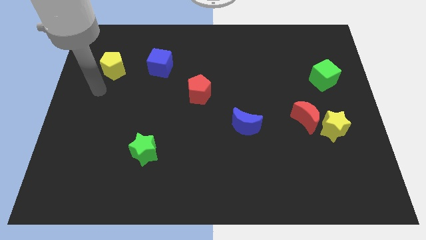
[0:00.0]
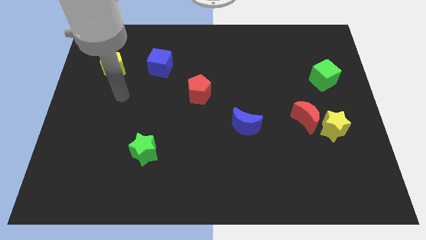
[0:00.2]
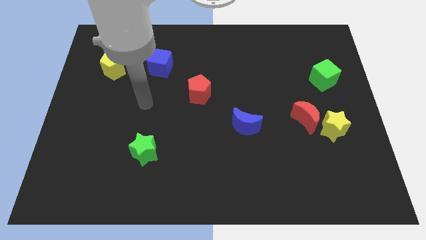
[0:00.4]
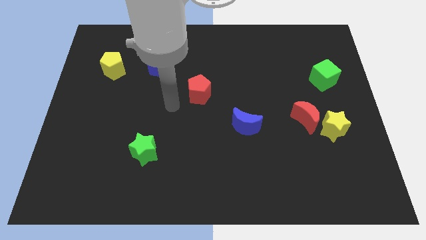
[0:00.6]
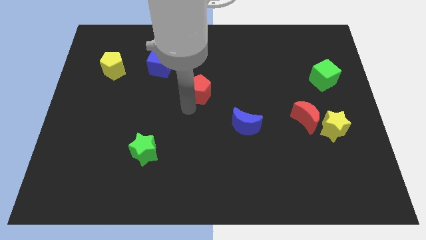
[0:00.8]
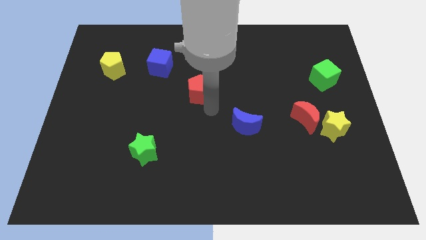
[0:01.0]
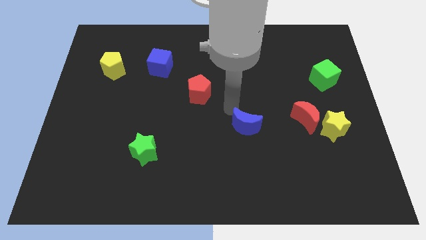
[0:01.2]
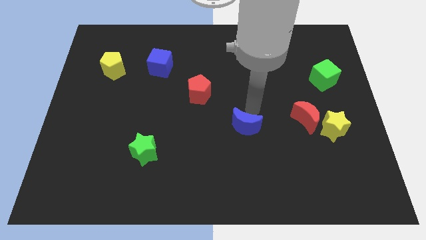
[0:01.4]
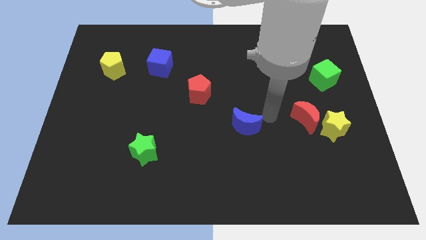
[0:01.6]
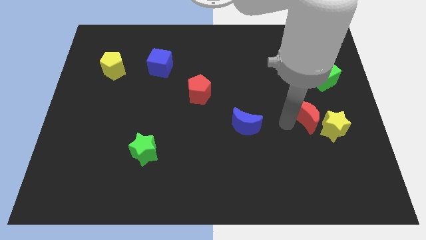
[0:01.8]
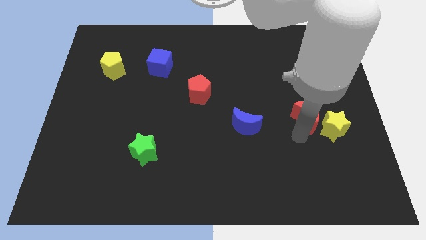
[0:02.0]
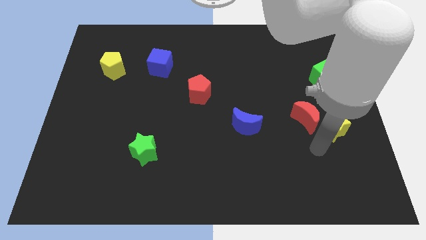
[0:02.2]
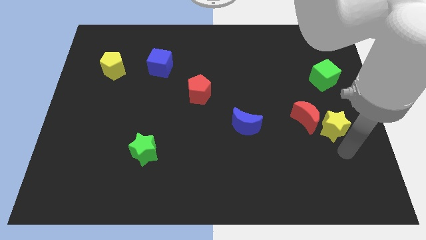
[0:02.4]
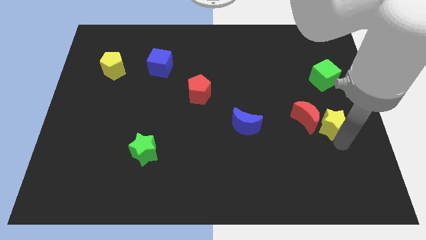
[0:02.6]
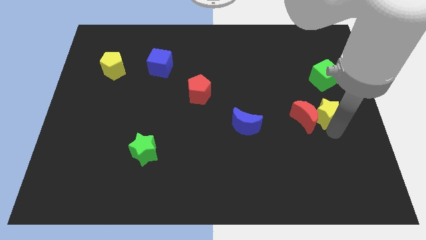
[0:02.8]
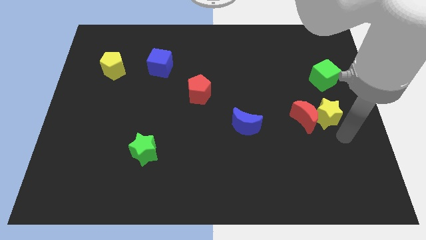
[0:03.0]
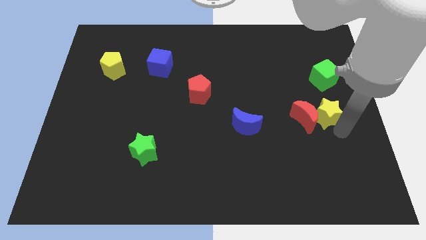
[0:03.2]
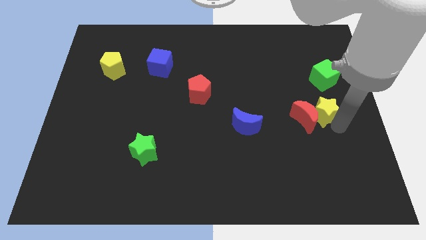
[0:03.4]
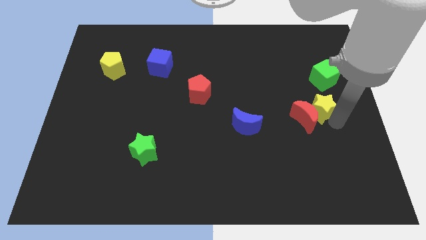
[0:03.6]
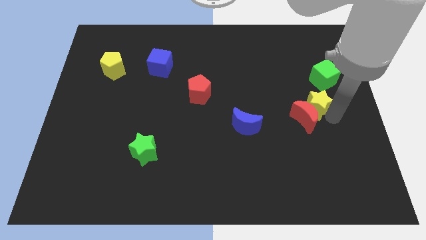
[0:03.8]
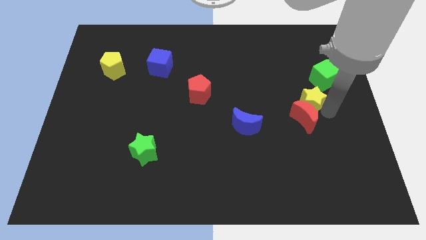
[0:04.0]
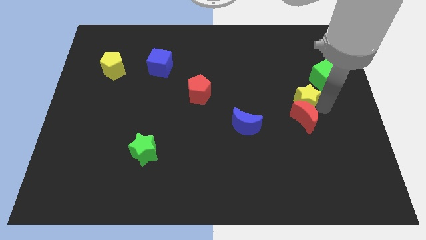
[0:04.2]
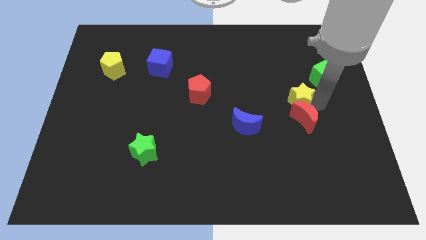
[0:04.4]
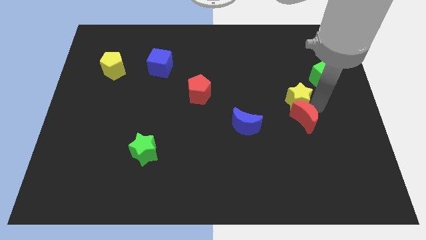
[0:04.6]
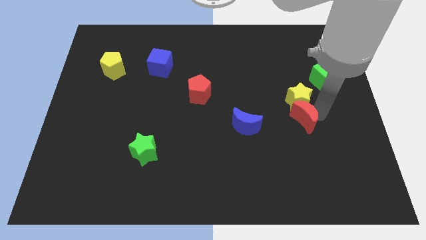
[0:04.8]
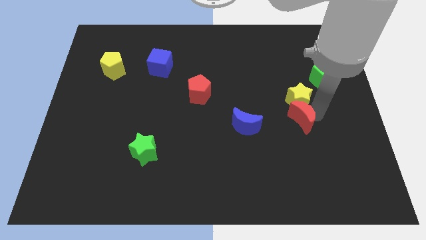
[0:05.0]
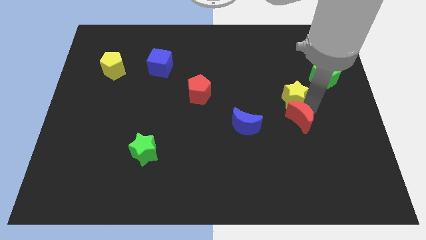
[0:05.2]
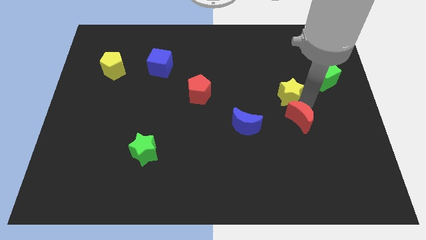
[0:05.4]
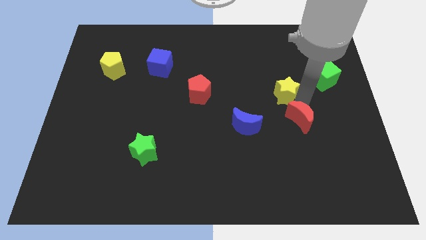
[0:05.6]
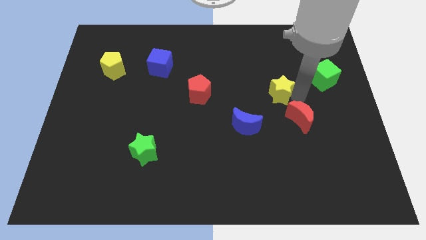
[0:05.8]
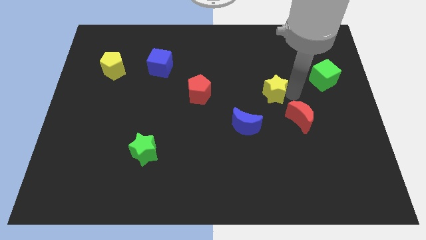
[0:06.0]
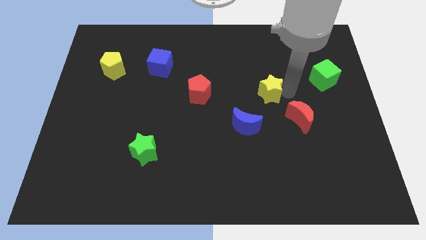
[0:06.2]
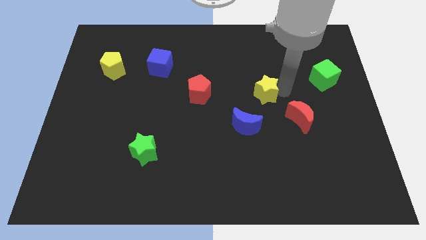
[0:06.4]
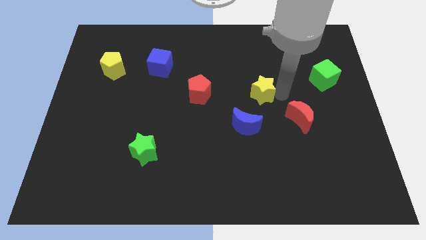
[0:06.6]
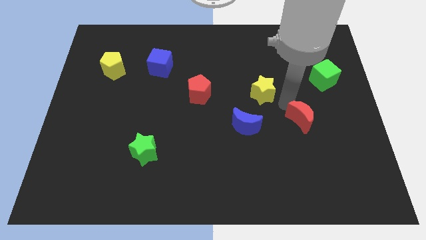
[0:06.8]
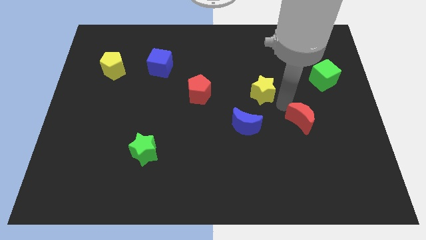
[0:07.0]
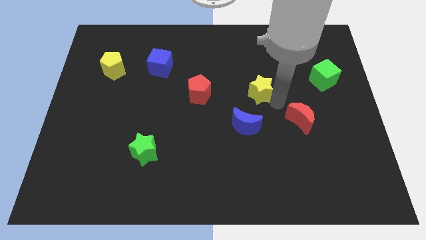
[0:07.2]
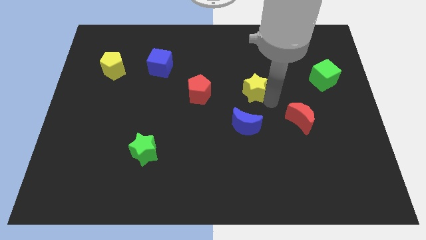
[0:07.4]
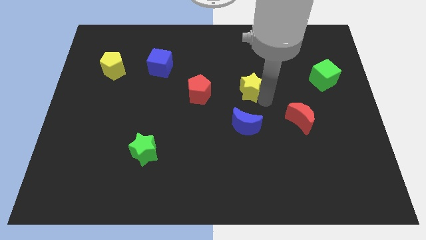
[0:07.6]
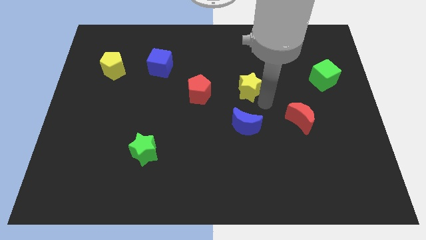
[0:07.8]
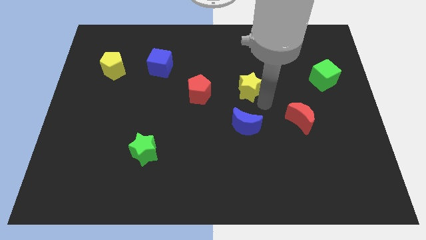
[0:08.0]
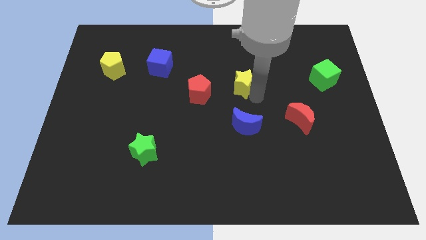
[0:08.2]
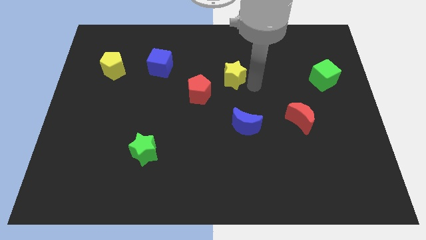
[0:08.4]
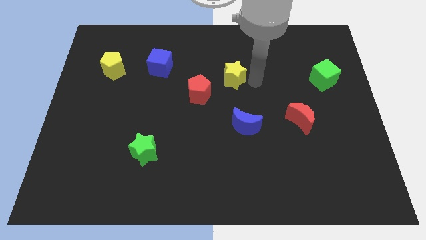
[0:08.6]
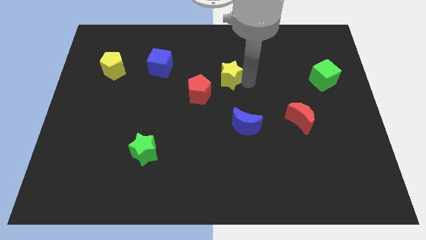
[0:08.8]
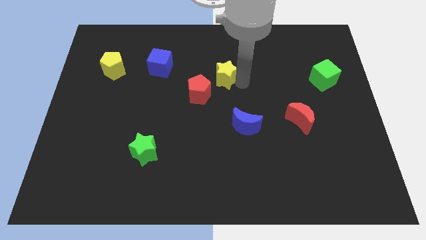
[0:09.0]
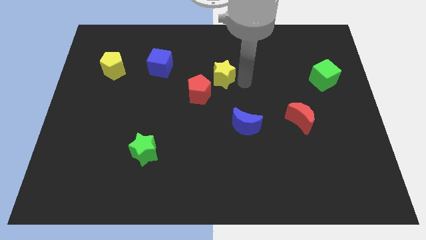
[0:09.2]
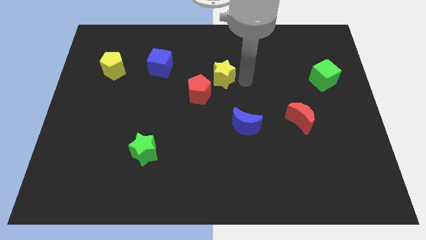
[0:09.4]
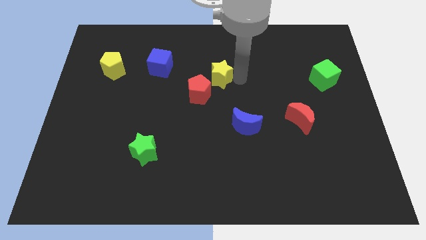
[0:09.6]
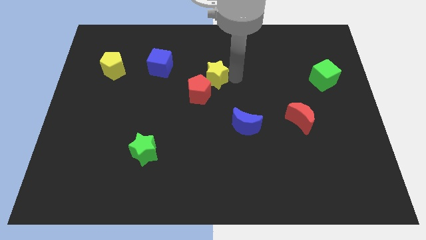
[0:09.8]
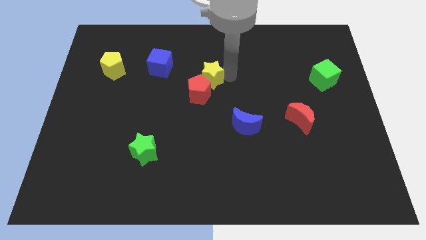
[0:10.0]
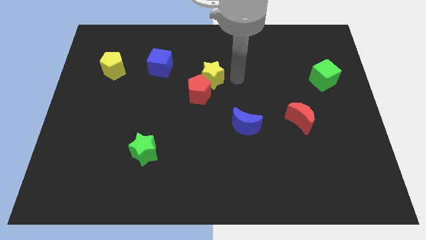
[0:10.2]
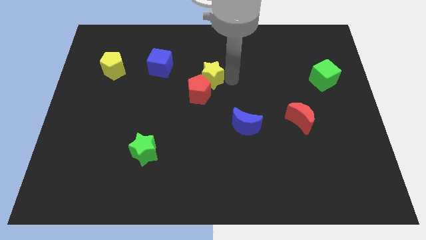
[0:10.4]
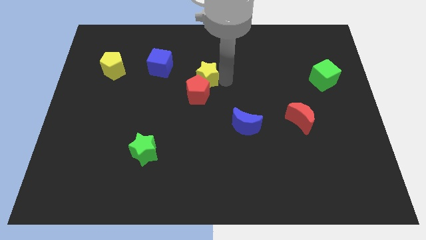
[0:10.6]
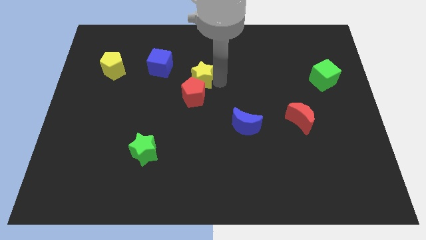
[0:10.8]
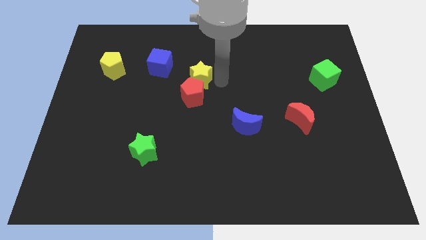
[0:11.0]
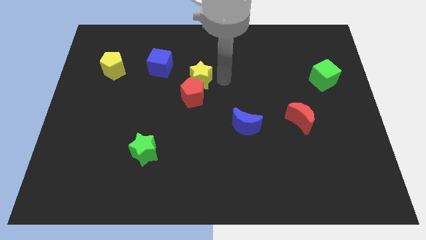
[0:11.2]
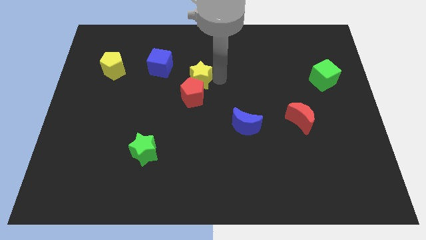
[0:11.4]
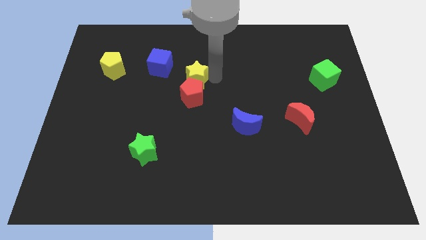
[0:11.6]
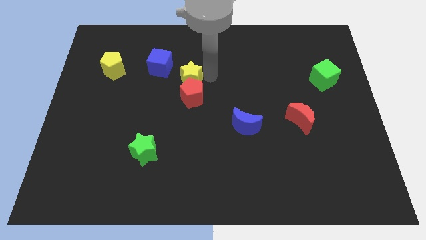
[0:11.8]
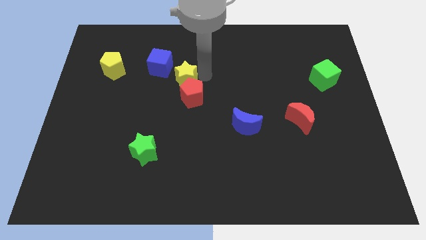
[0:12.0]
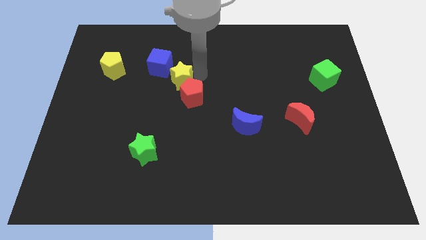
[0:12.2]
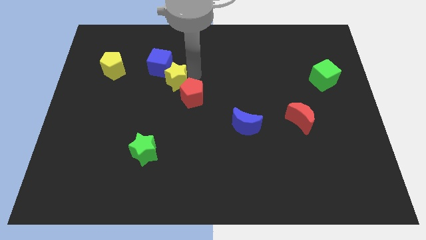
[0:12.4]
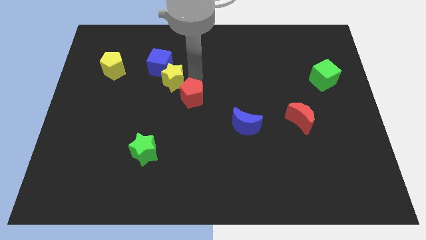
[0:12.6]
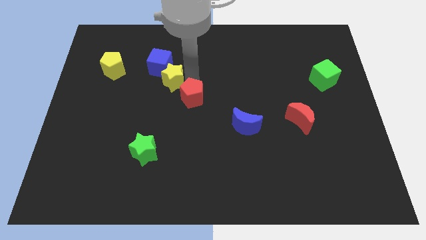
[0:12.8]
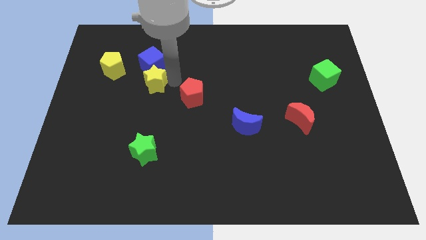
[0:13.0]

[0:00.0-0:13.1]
slide the yellow star to the bottom left side of the blue cube

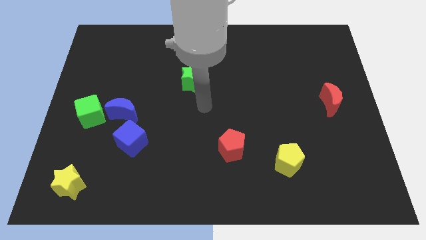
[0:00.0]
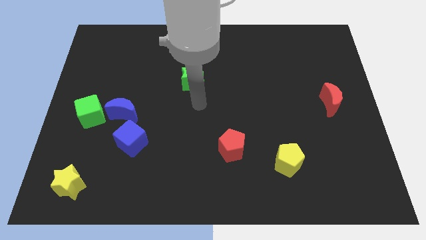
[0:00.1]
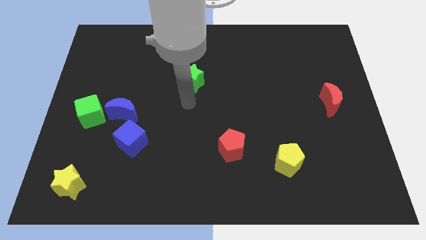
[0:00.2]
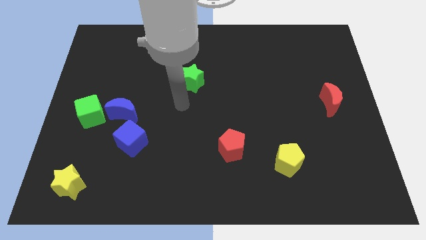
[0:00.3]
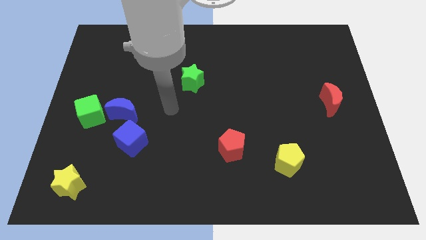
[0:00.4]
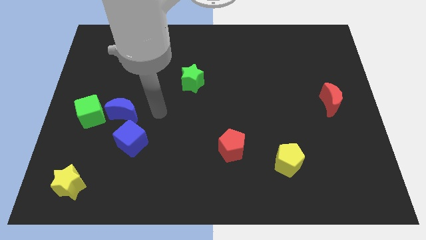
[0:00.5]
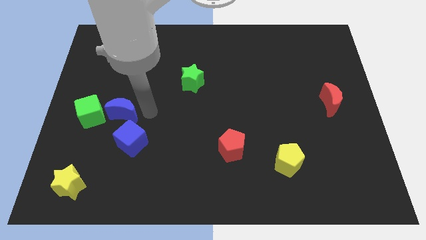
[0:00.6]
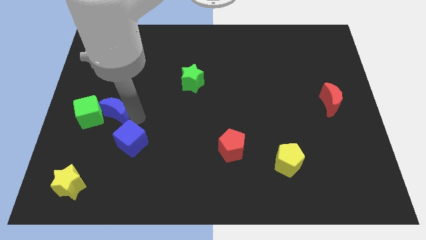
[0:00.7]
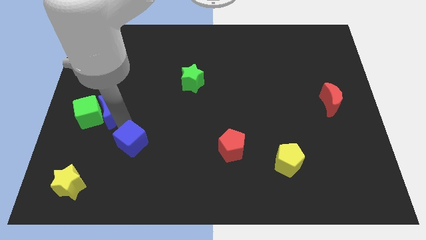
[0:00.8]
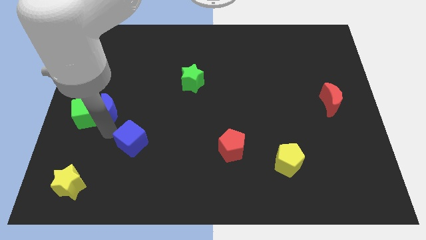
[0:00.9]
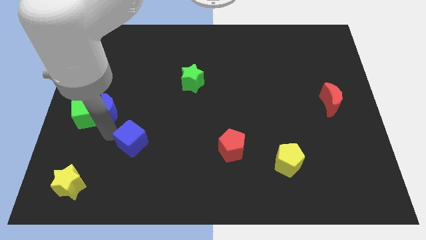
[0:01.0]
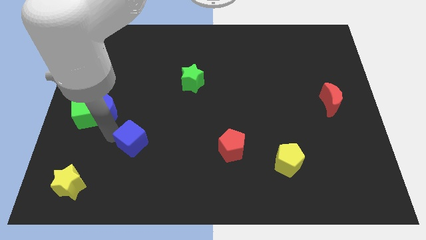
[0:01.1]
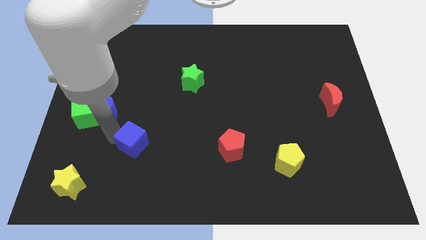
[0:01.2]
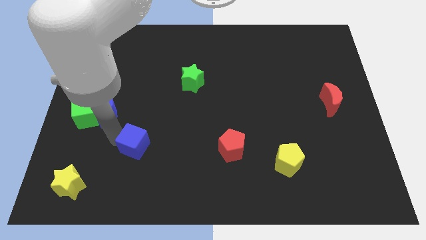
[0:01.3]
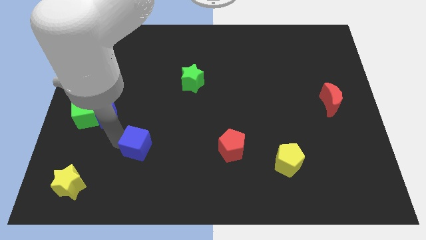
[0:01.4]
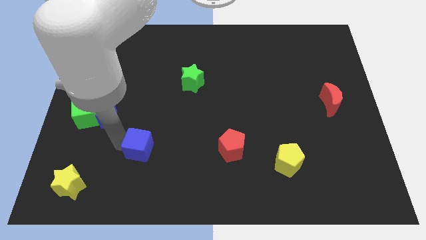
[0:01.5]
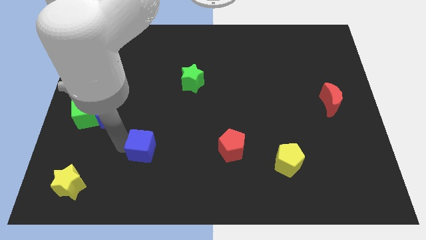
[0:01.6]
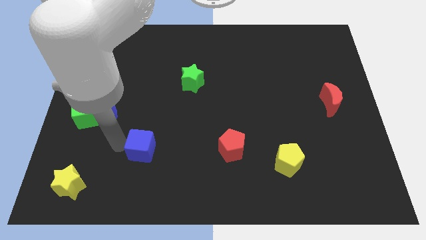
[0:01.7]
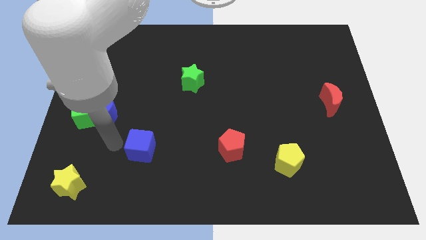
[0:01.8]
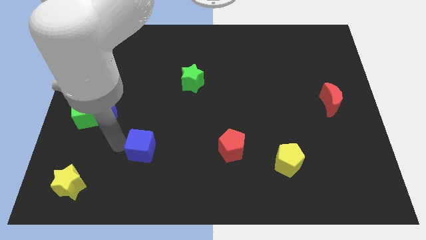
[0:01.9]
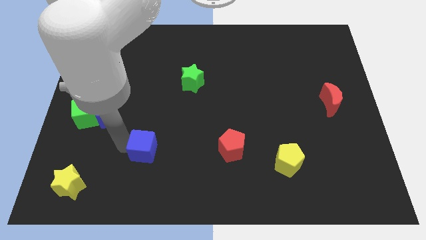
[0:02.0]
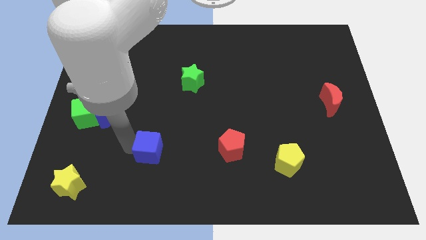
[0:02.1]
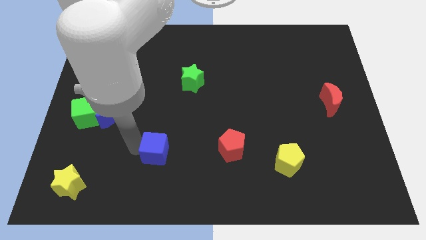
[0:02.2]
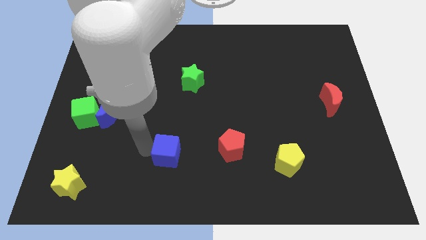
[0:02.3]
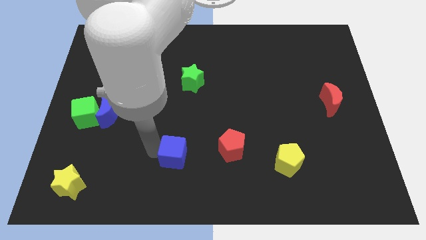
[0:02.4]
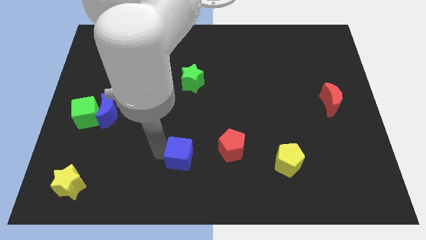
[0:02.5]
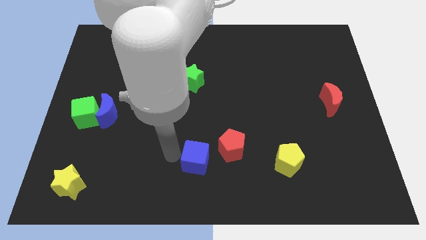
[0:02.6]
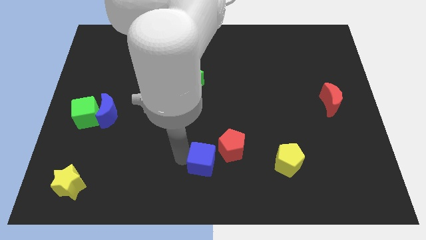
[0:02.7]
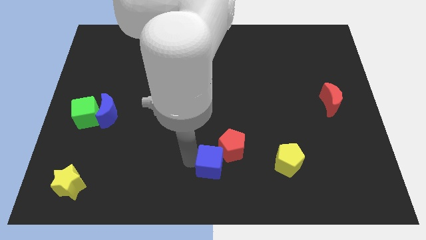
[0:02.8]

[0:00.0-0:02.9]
put the blue cube to the left side of the yellow pentagon
